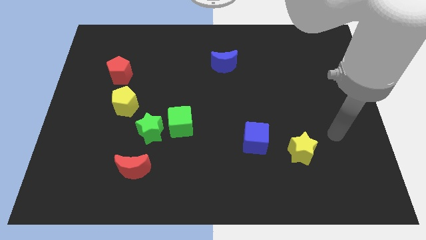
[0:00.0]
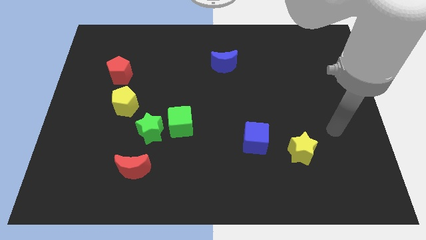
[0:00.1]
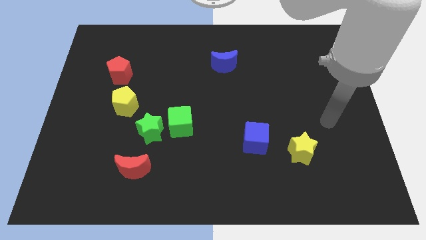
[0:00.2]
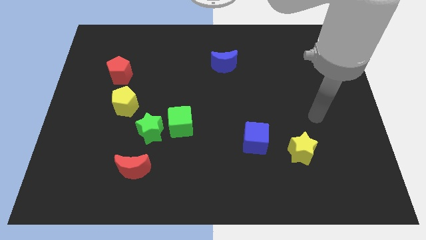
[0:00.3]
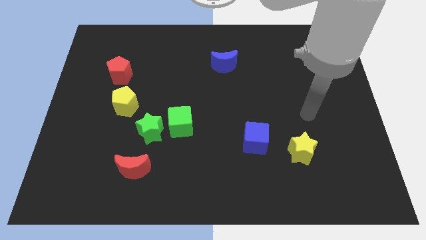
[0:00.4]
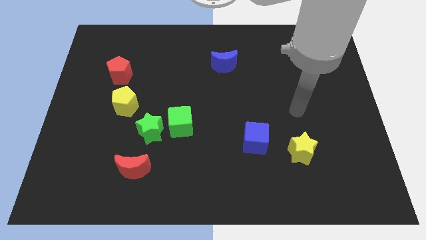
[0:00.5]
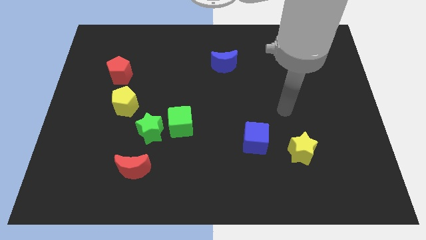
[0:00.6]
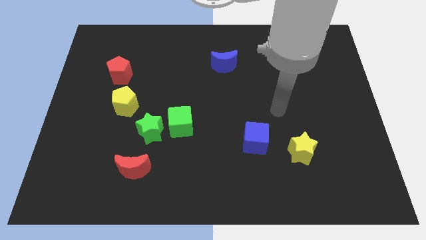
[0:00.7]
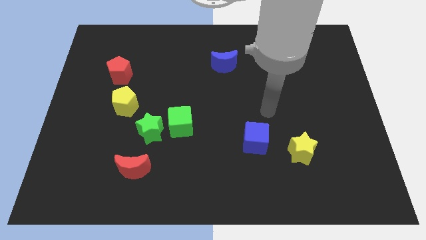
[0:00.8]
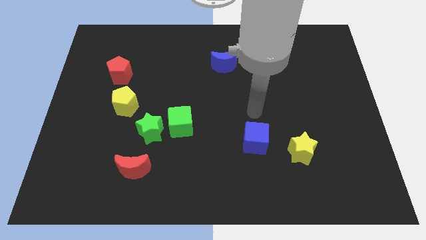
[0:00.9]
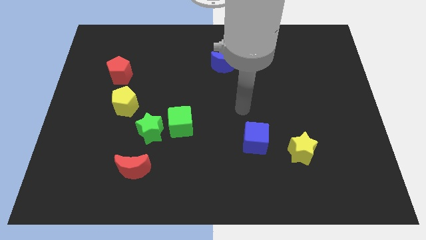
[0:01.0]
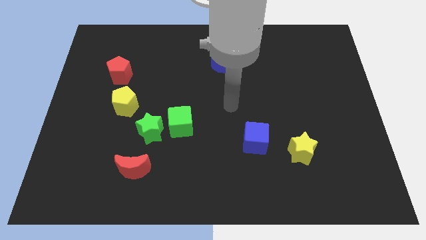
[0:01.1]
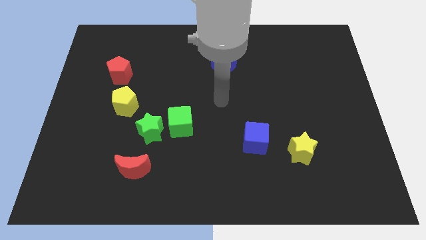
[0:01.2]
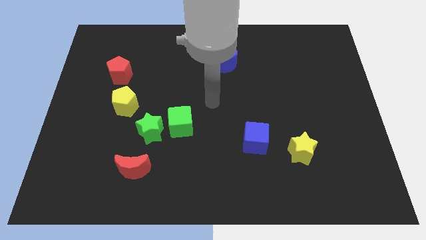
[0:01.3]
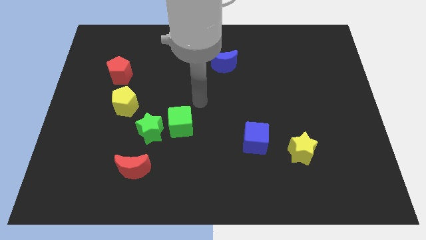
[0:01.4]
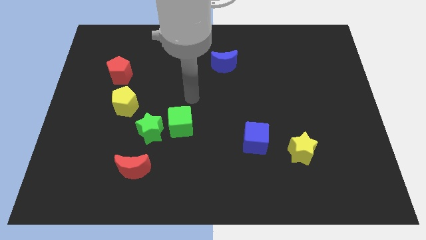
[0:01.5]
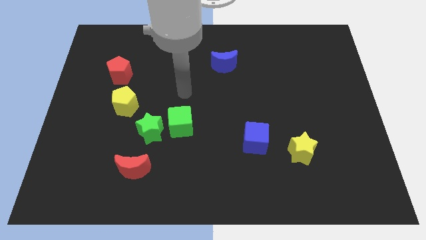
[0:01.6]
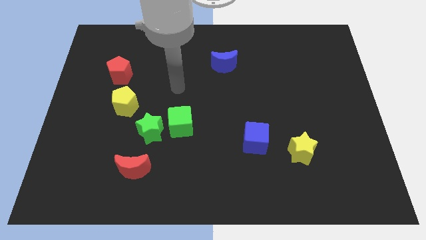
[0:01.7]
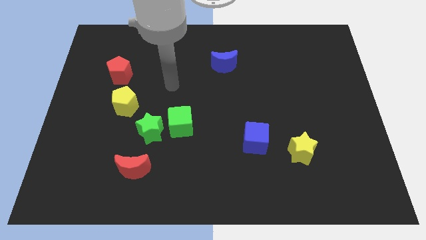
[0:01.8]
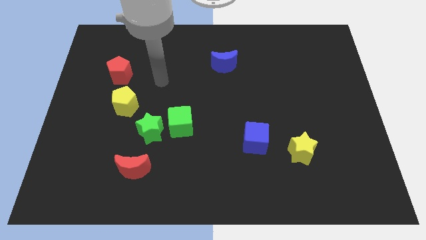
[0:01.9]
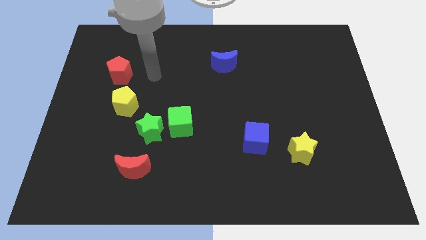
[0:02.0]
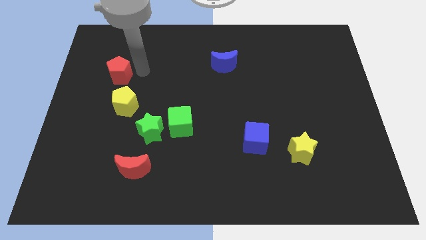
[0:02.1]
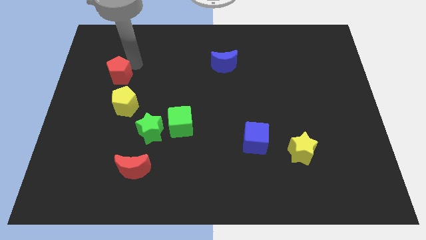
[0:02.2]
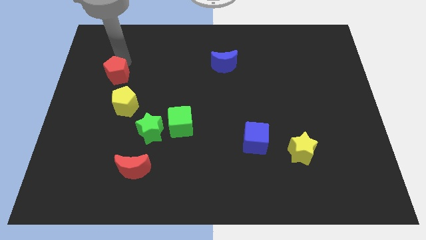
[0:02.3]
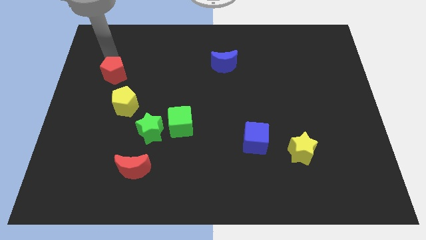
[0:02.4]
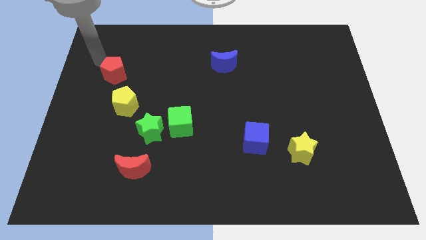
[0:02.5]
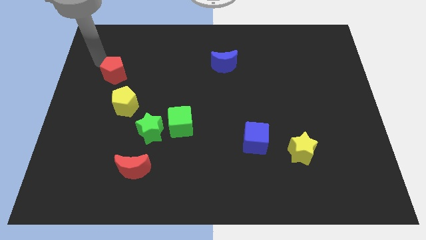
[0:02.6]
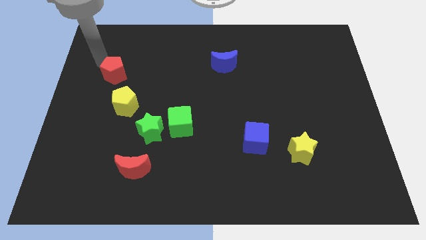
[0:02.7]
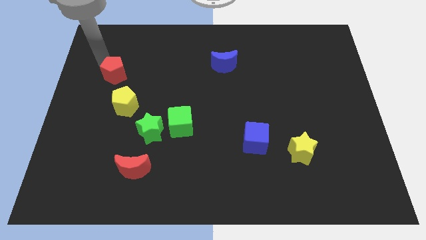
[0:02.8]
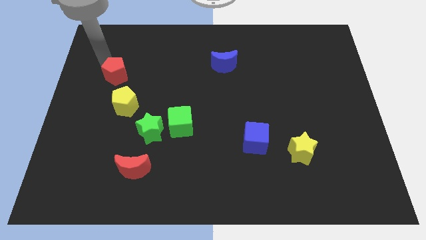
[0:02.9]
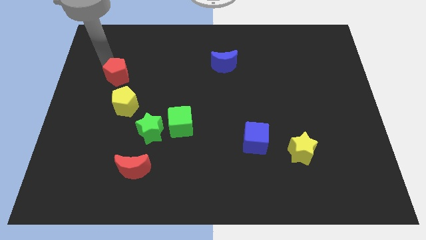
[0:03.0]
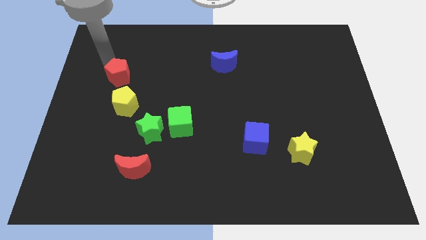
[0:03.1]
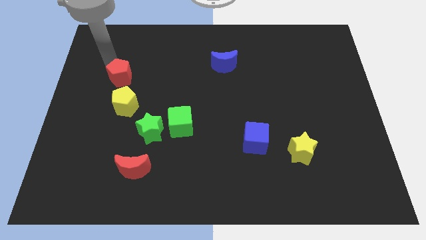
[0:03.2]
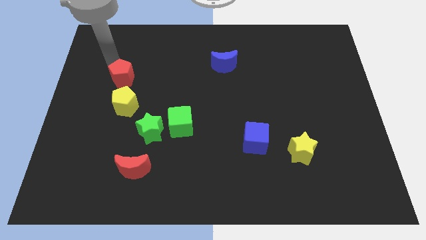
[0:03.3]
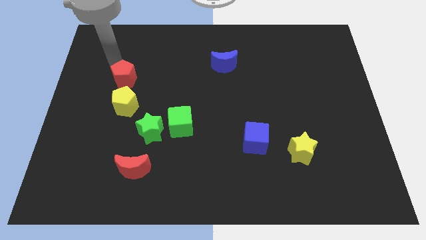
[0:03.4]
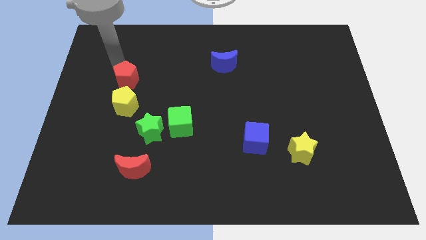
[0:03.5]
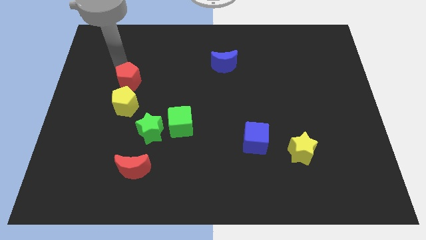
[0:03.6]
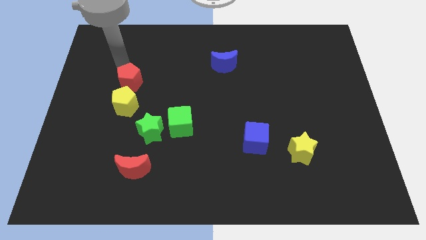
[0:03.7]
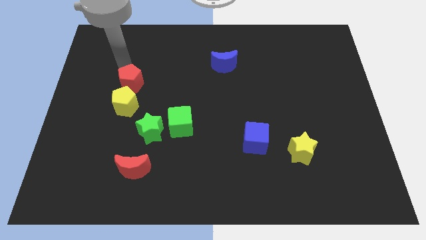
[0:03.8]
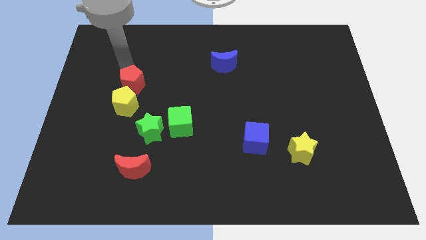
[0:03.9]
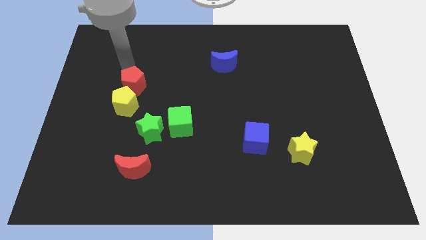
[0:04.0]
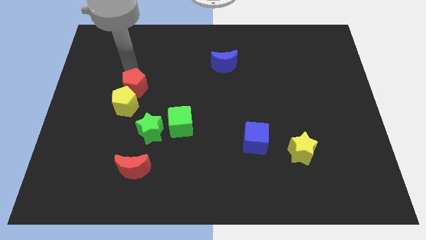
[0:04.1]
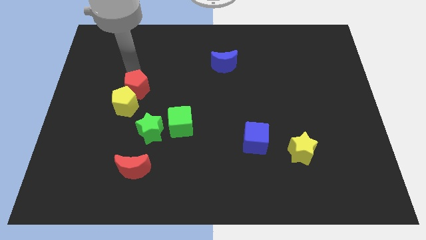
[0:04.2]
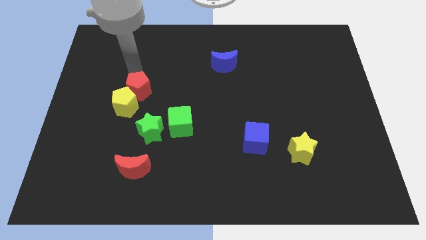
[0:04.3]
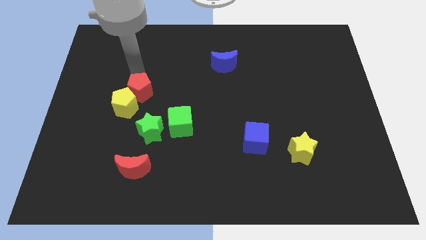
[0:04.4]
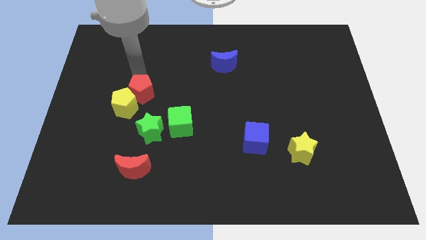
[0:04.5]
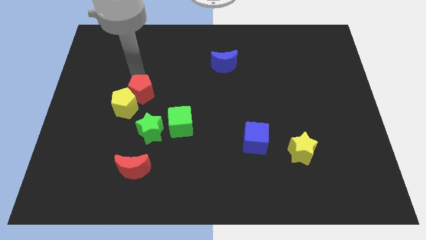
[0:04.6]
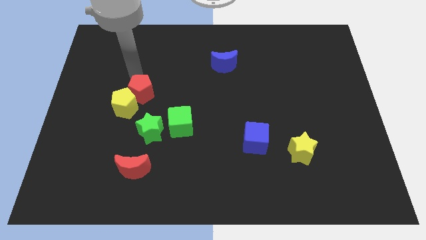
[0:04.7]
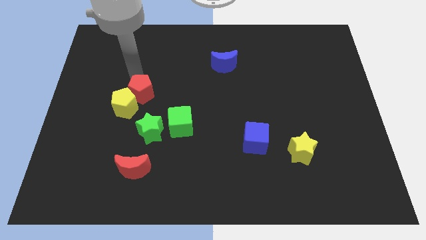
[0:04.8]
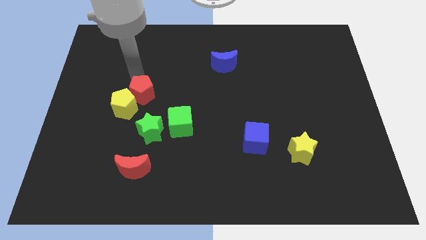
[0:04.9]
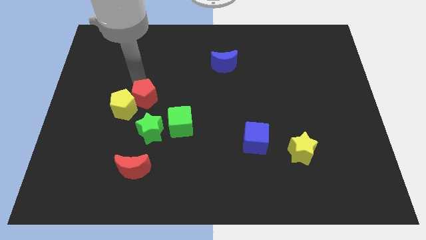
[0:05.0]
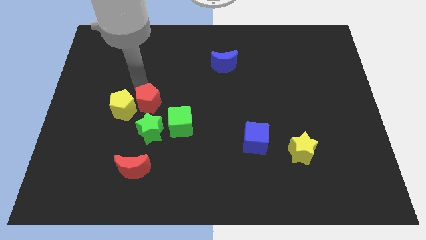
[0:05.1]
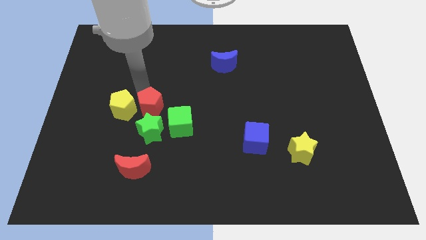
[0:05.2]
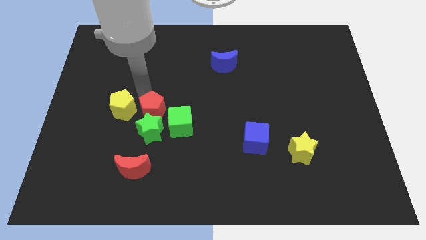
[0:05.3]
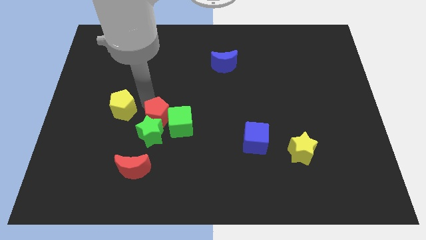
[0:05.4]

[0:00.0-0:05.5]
push the red pentagon close to the green cube

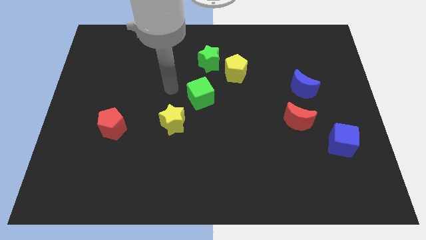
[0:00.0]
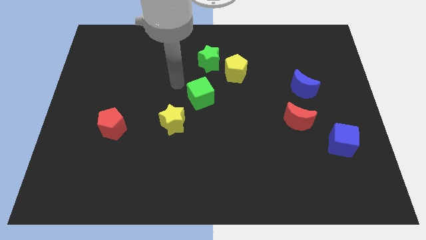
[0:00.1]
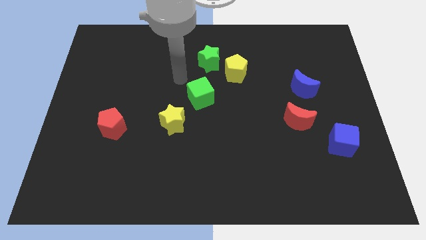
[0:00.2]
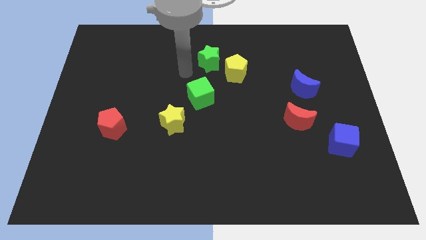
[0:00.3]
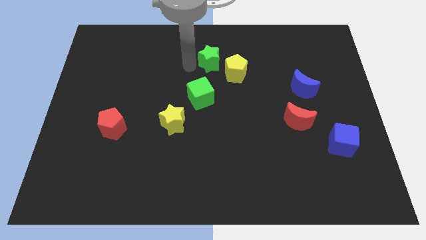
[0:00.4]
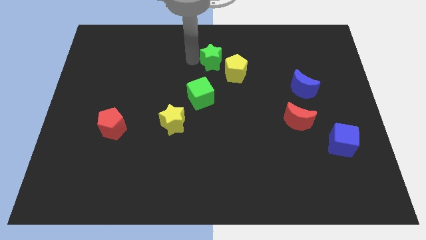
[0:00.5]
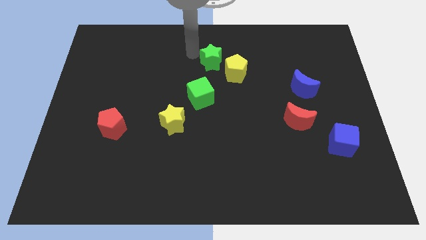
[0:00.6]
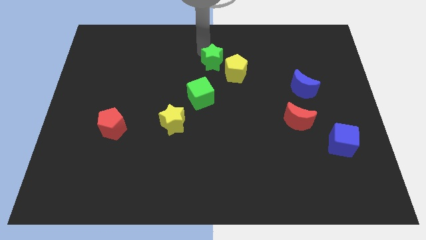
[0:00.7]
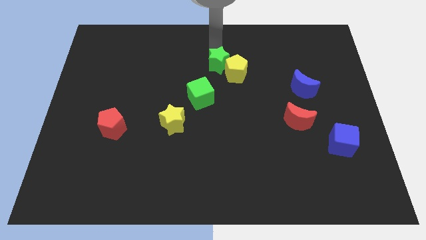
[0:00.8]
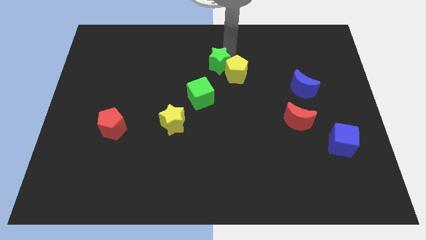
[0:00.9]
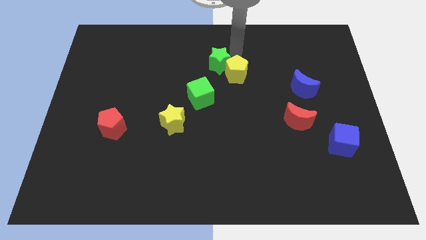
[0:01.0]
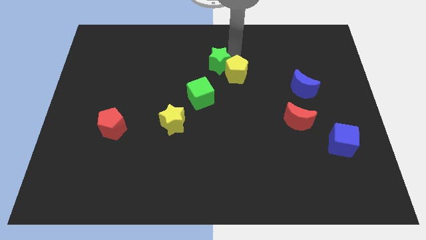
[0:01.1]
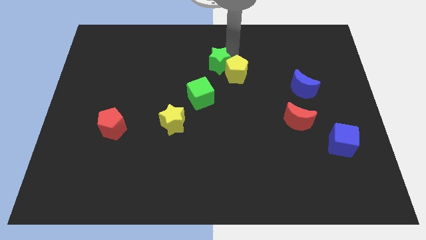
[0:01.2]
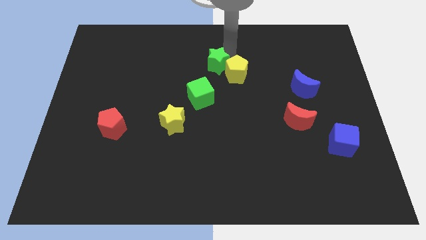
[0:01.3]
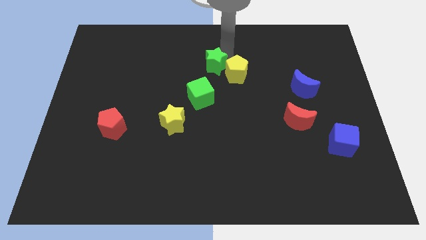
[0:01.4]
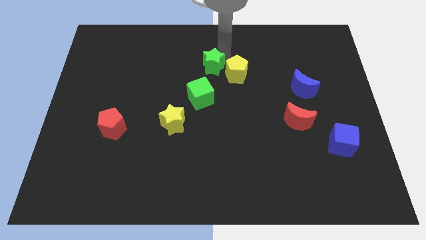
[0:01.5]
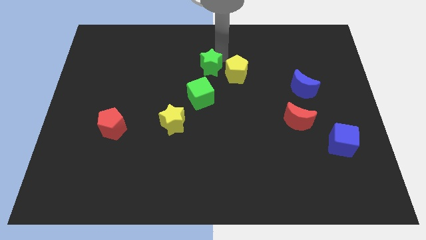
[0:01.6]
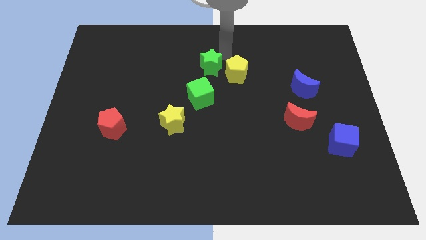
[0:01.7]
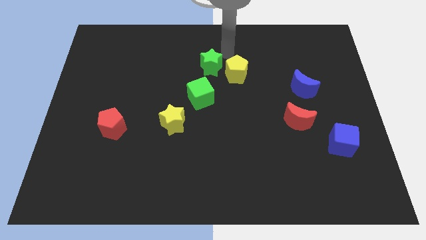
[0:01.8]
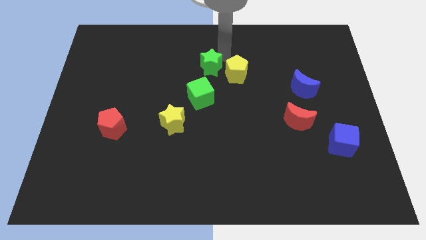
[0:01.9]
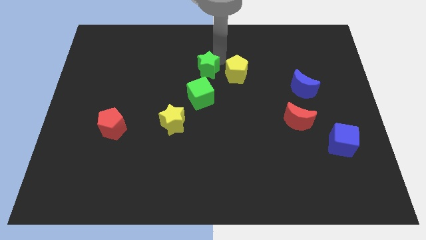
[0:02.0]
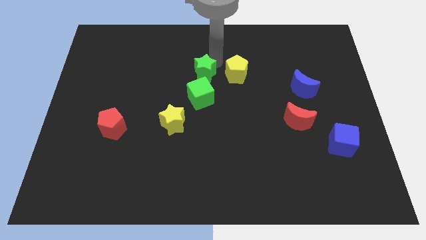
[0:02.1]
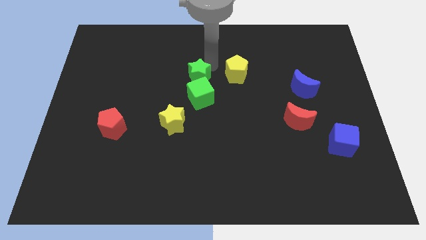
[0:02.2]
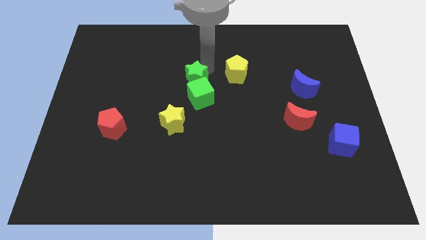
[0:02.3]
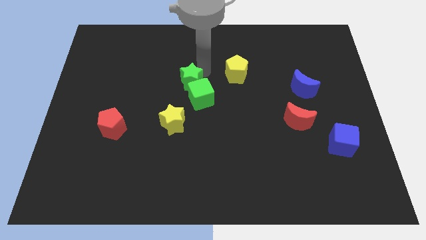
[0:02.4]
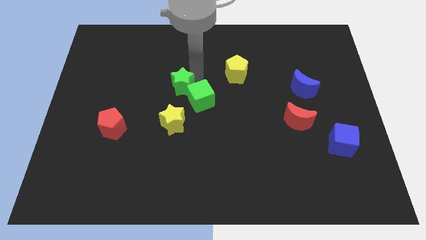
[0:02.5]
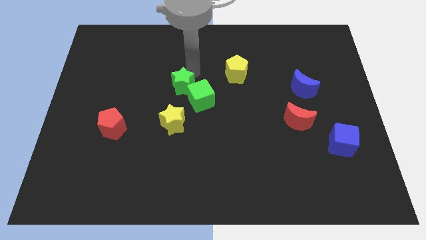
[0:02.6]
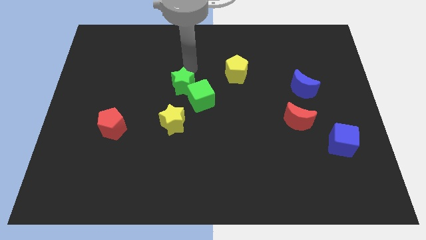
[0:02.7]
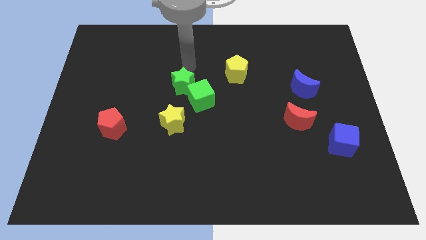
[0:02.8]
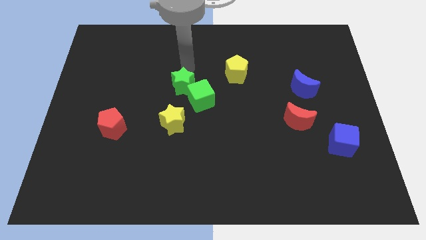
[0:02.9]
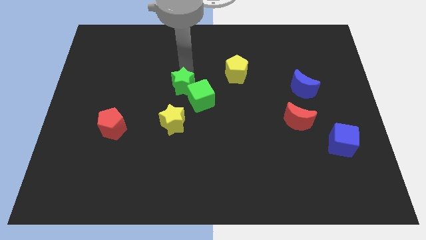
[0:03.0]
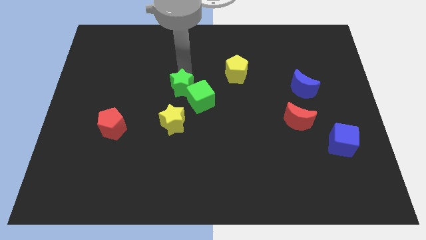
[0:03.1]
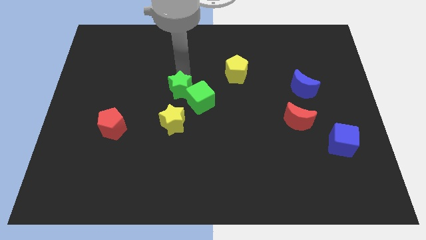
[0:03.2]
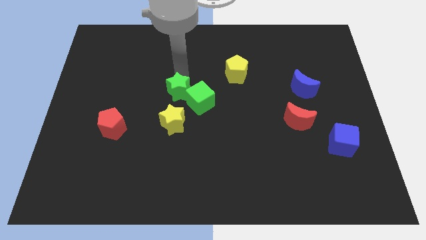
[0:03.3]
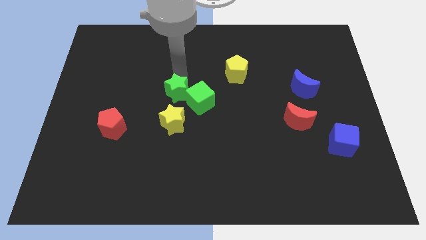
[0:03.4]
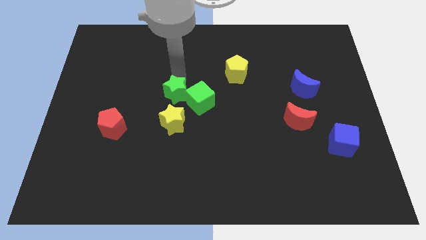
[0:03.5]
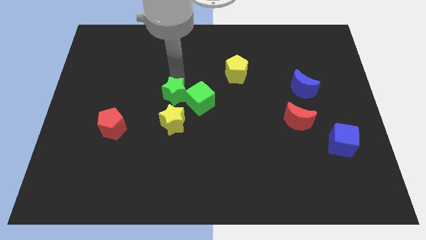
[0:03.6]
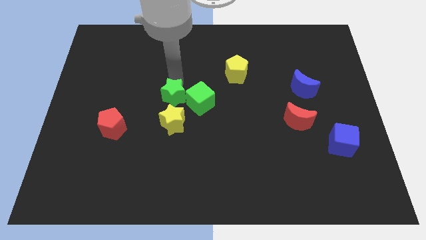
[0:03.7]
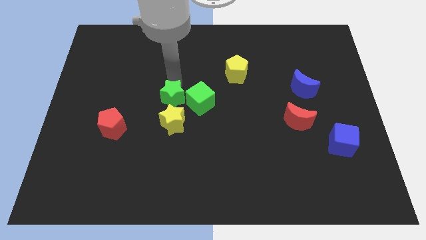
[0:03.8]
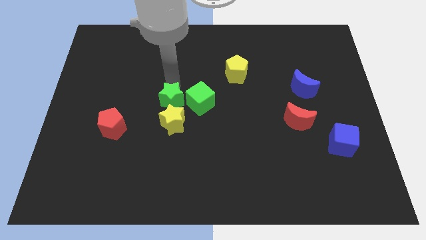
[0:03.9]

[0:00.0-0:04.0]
push the green star towards the yellow star
